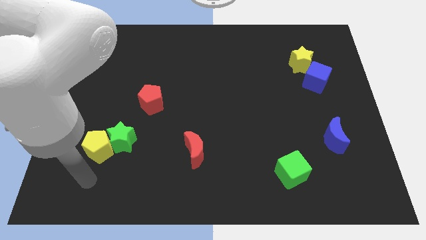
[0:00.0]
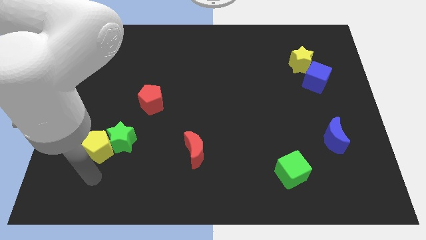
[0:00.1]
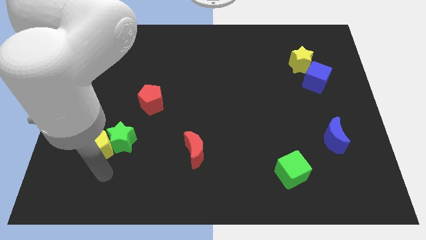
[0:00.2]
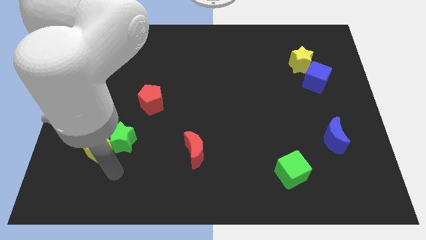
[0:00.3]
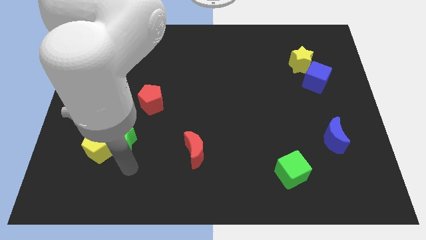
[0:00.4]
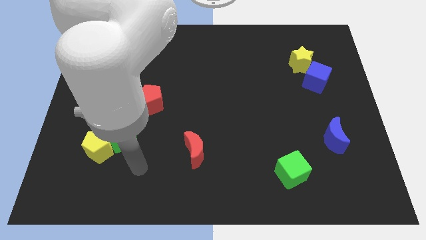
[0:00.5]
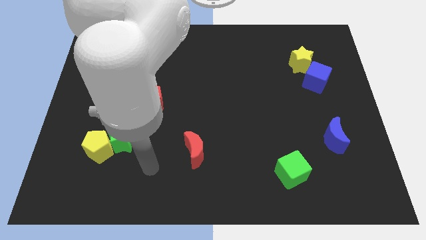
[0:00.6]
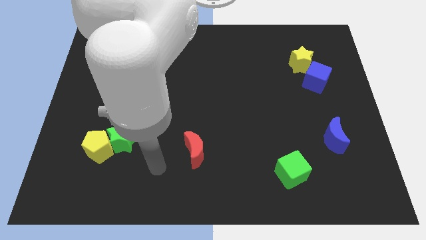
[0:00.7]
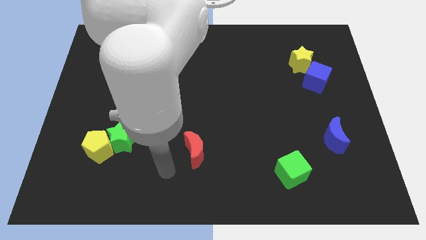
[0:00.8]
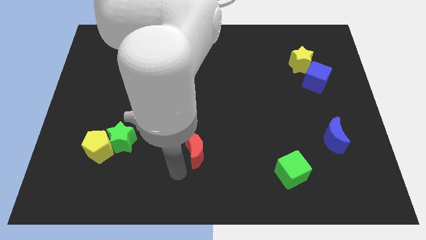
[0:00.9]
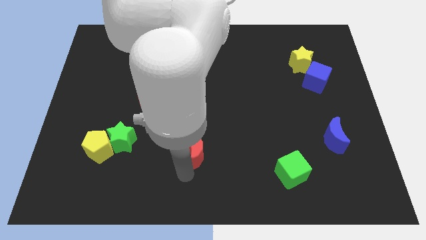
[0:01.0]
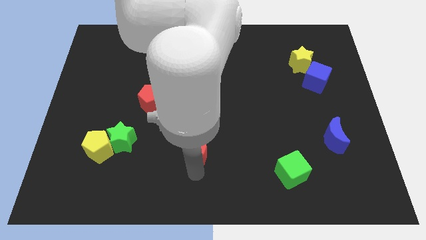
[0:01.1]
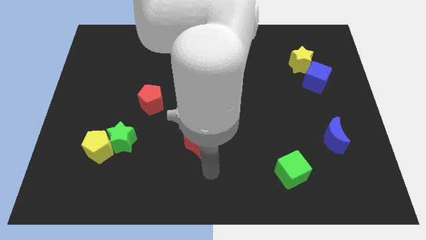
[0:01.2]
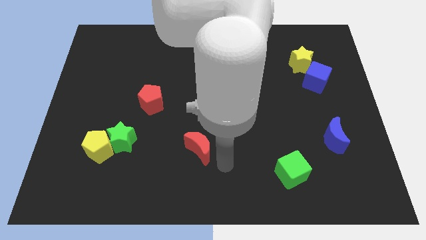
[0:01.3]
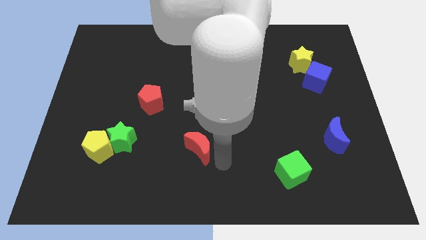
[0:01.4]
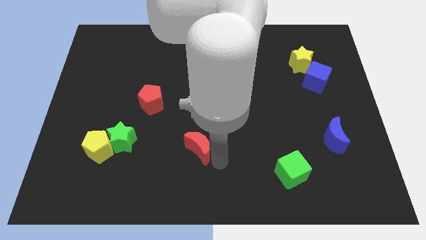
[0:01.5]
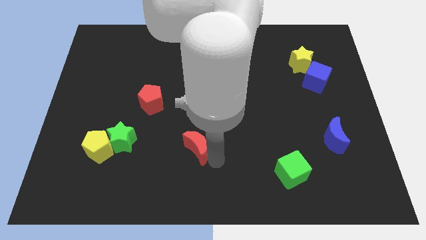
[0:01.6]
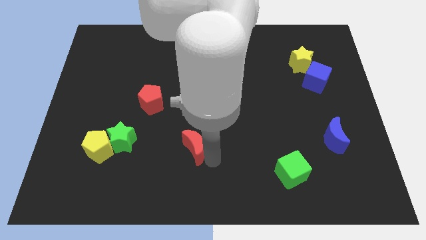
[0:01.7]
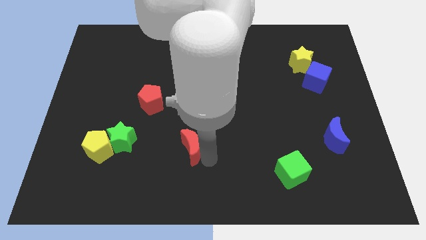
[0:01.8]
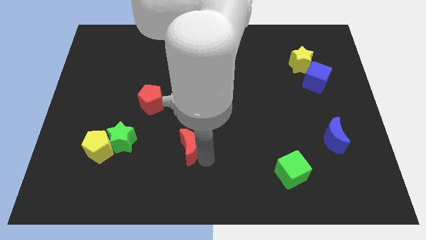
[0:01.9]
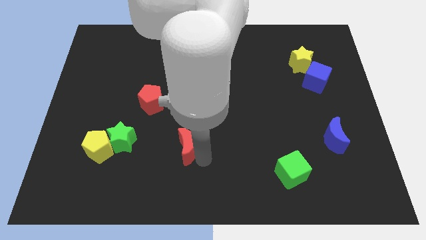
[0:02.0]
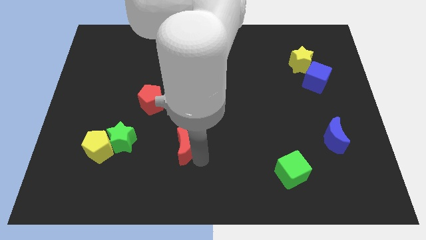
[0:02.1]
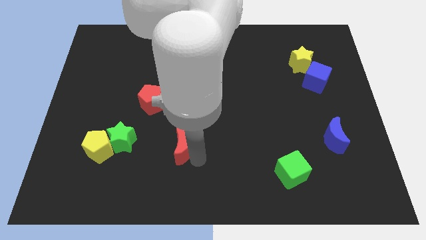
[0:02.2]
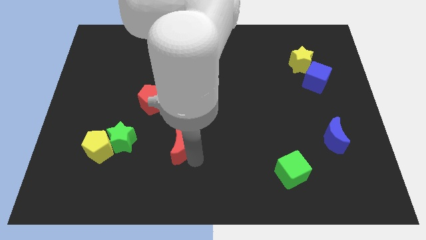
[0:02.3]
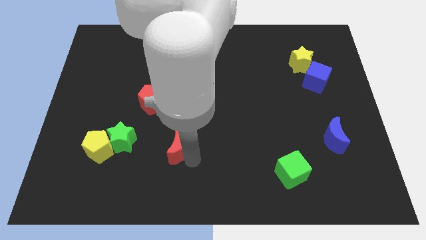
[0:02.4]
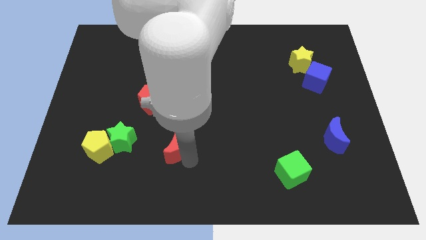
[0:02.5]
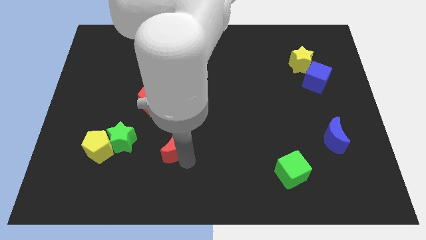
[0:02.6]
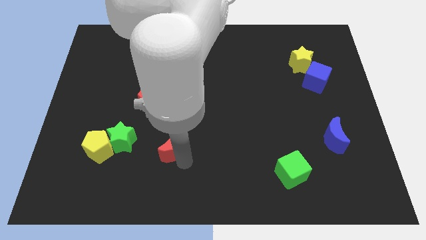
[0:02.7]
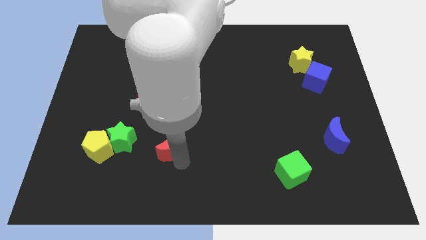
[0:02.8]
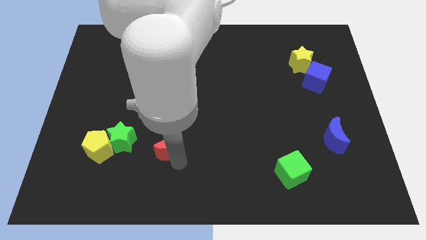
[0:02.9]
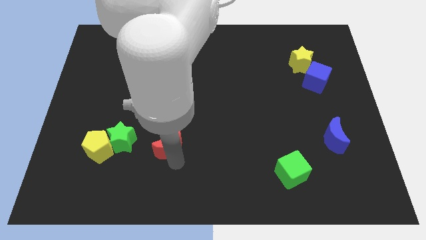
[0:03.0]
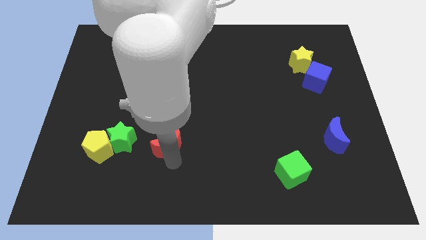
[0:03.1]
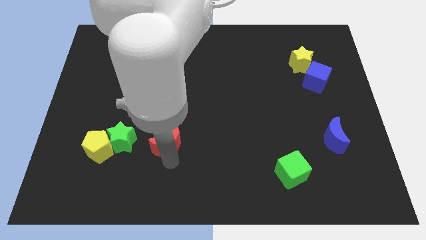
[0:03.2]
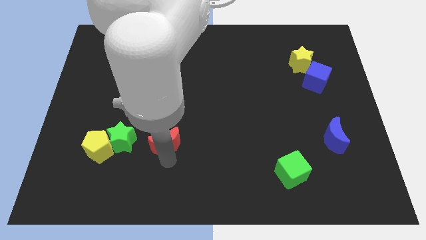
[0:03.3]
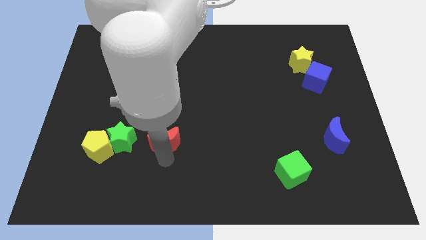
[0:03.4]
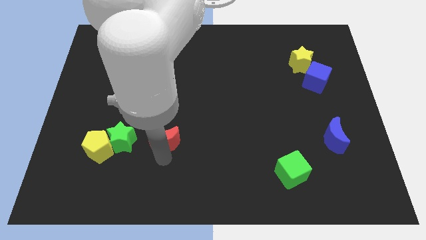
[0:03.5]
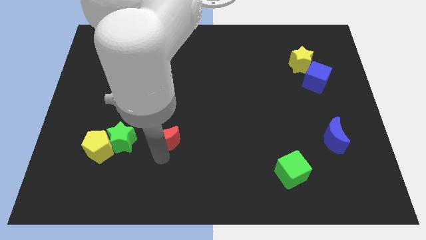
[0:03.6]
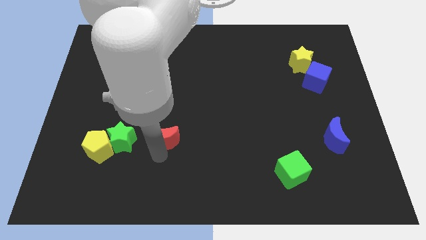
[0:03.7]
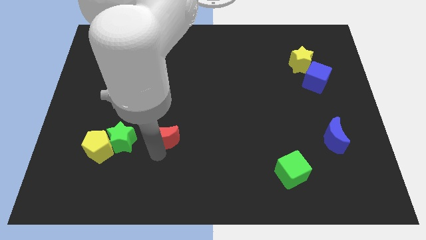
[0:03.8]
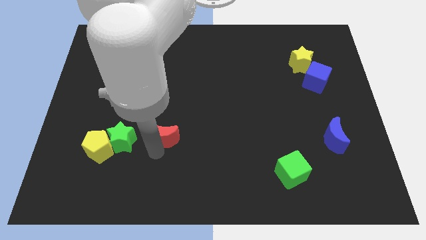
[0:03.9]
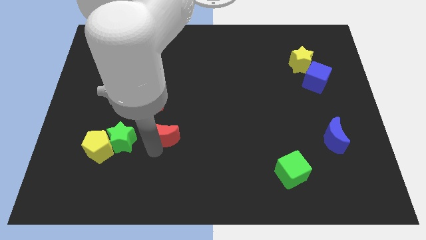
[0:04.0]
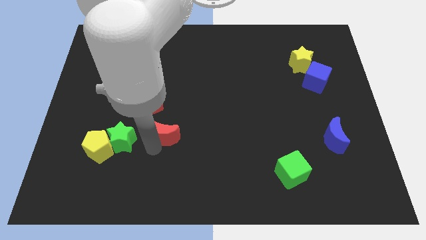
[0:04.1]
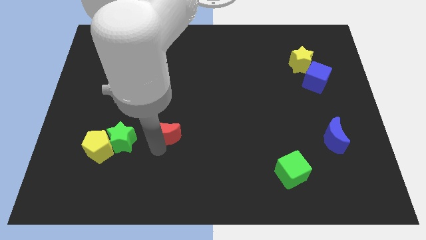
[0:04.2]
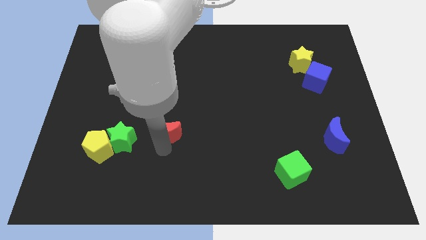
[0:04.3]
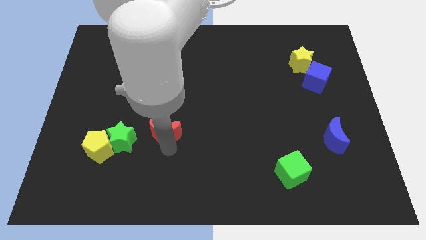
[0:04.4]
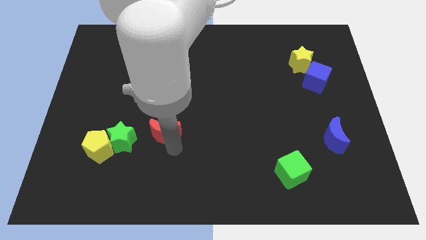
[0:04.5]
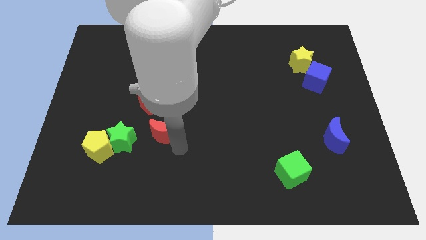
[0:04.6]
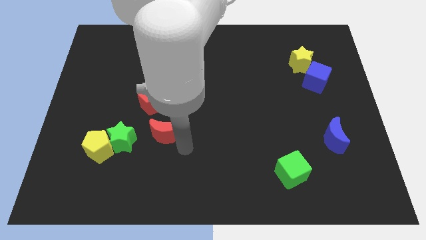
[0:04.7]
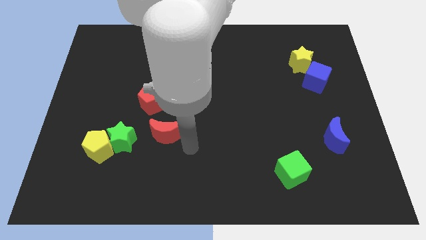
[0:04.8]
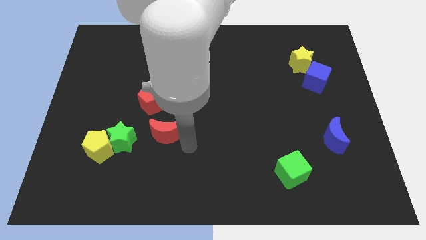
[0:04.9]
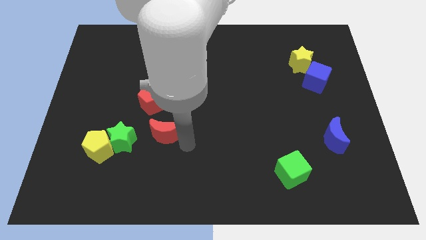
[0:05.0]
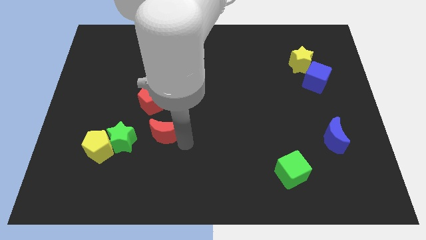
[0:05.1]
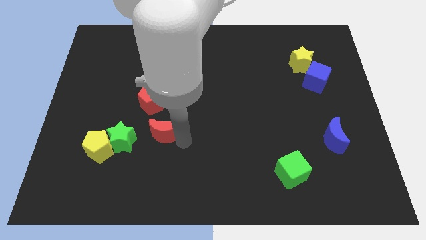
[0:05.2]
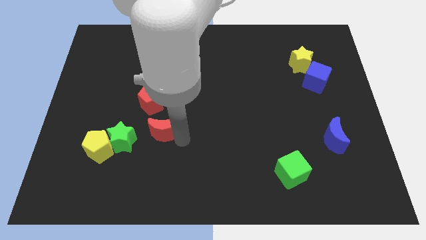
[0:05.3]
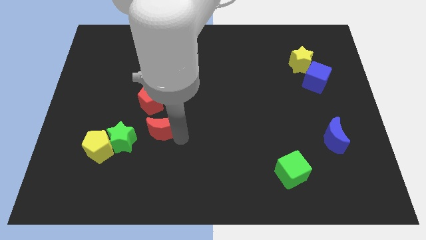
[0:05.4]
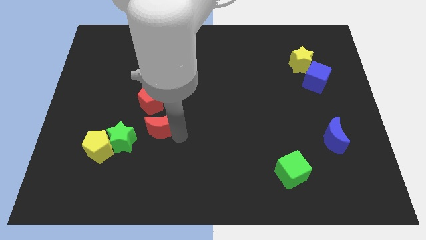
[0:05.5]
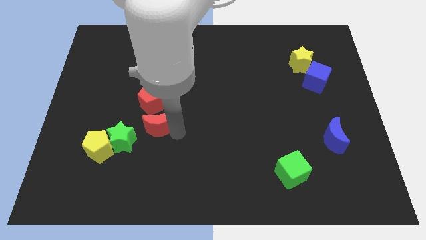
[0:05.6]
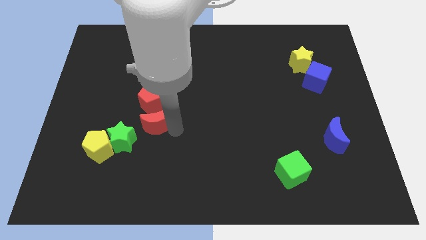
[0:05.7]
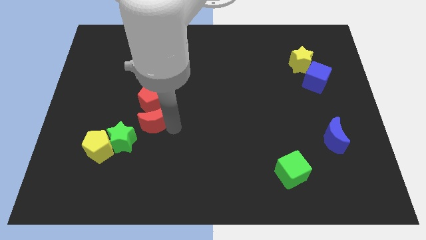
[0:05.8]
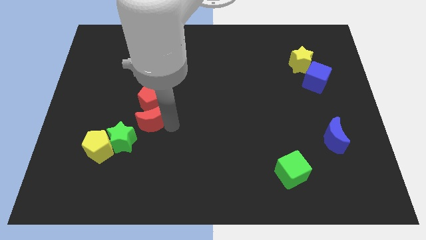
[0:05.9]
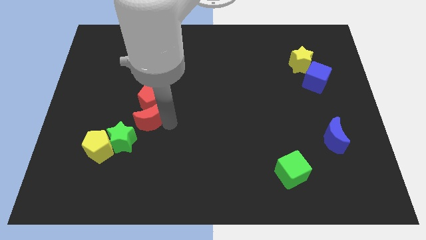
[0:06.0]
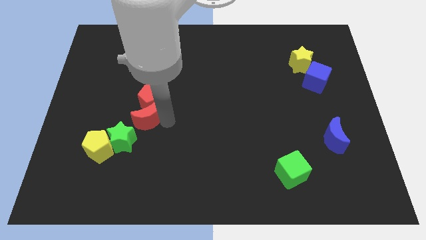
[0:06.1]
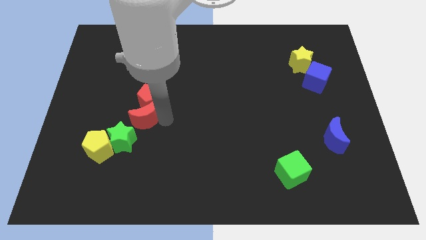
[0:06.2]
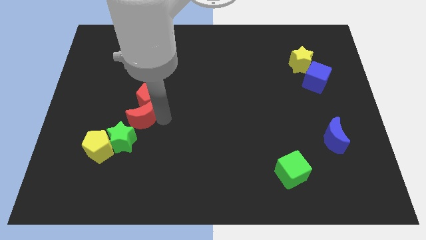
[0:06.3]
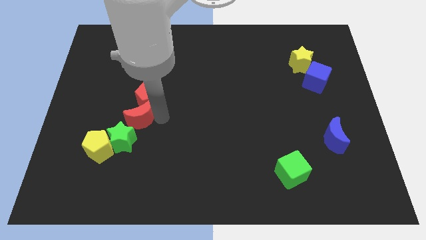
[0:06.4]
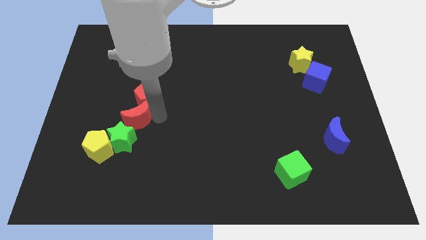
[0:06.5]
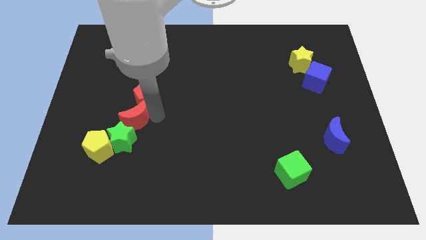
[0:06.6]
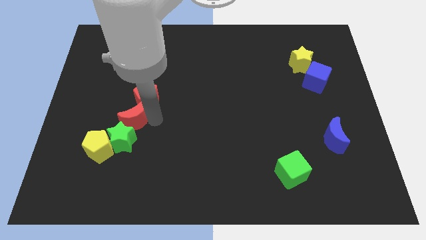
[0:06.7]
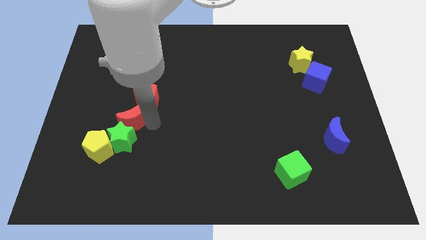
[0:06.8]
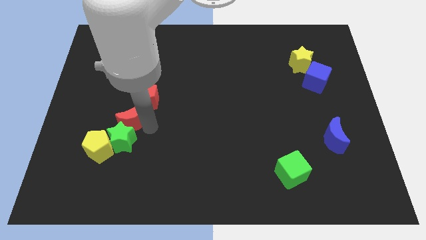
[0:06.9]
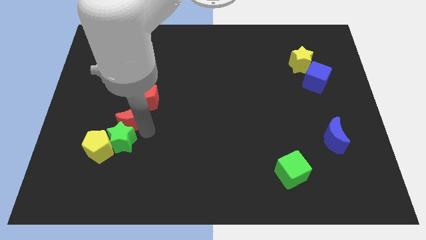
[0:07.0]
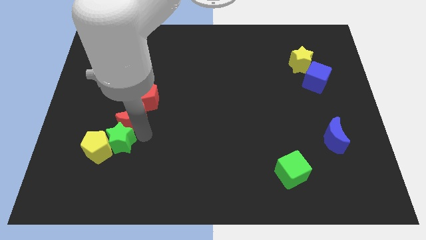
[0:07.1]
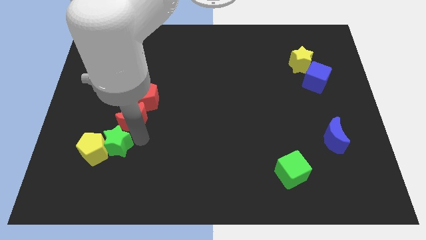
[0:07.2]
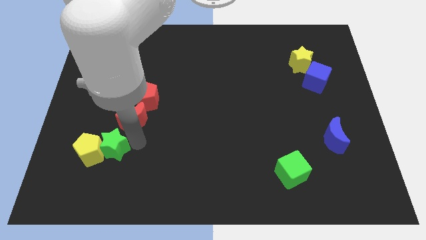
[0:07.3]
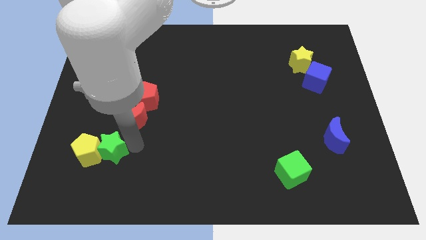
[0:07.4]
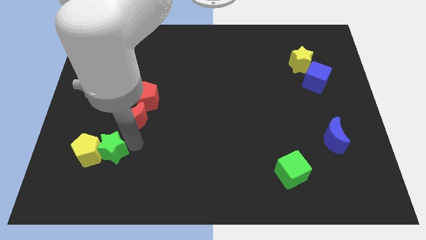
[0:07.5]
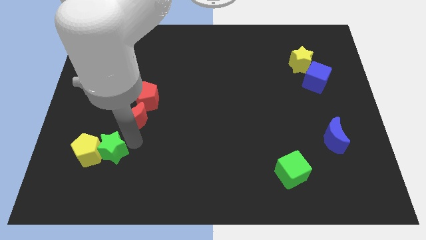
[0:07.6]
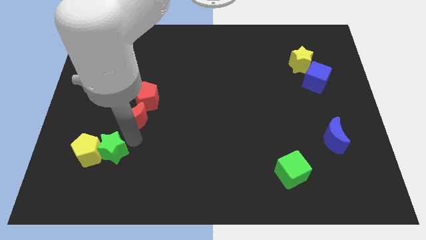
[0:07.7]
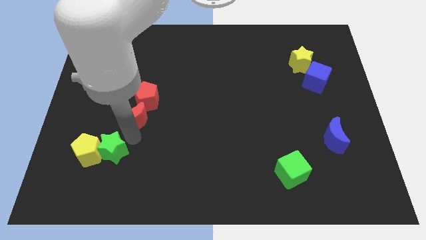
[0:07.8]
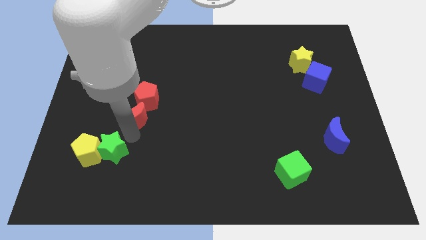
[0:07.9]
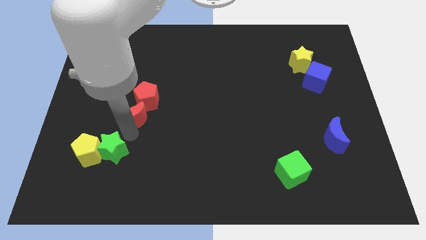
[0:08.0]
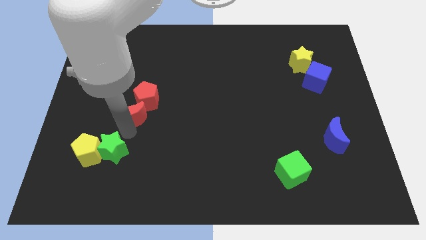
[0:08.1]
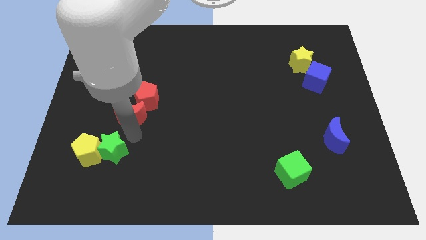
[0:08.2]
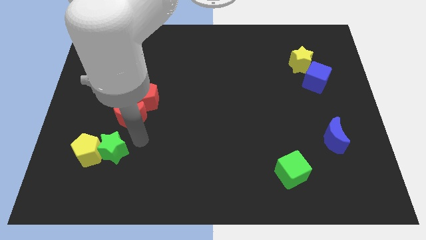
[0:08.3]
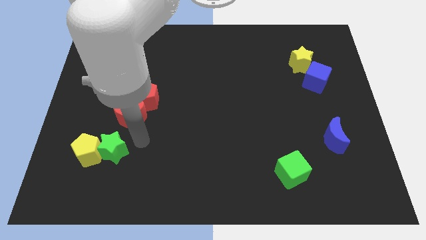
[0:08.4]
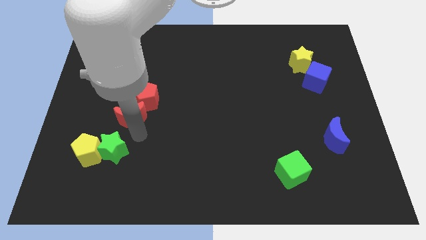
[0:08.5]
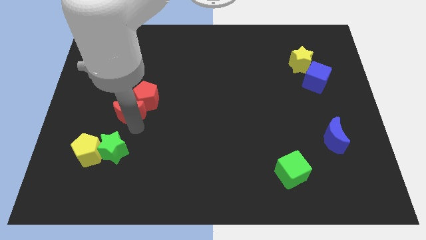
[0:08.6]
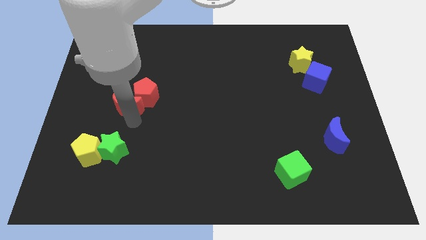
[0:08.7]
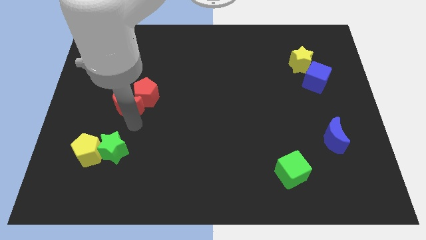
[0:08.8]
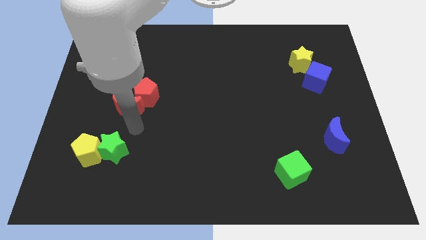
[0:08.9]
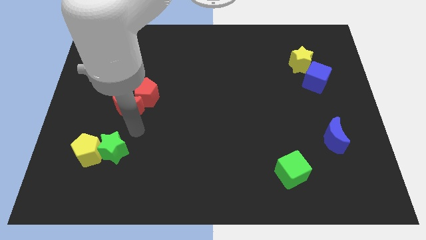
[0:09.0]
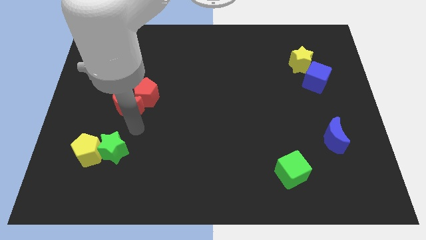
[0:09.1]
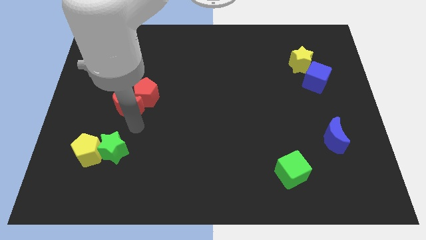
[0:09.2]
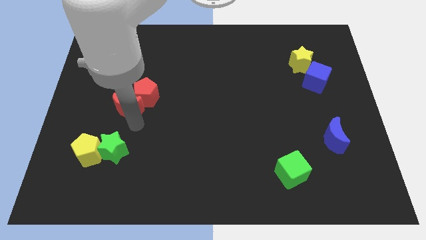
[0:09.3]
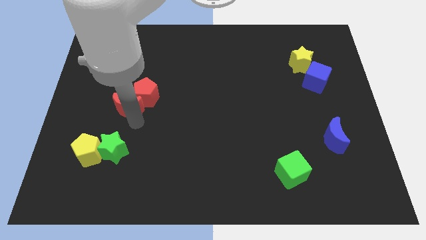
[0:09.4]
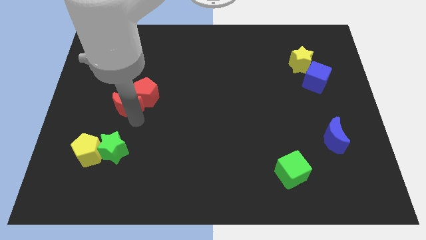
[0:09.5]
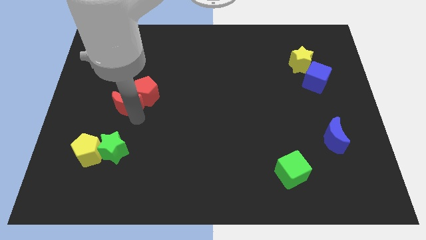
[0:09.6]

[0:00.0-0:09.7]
move the red moon up and then left
